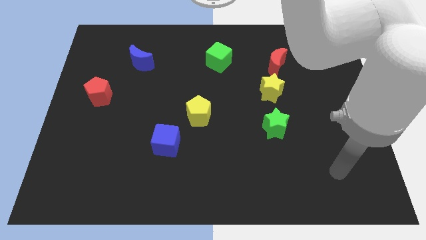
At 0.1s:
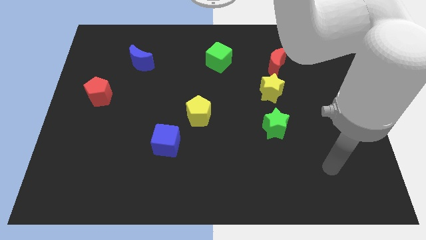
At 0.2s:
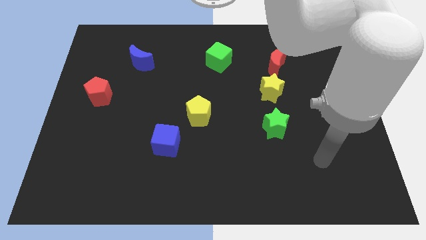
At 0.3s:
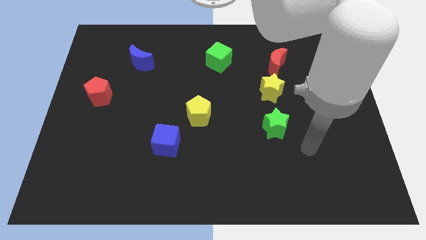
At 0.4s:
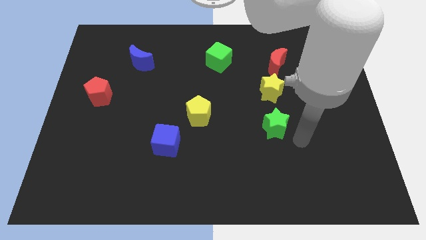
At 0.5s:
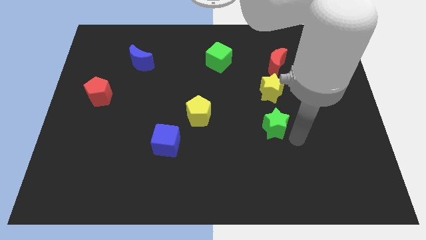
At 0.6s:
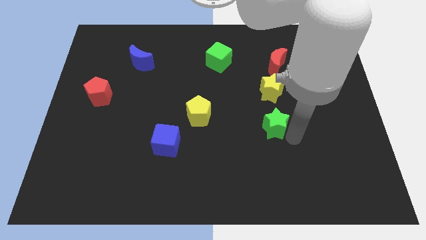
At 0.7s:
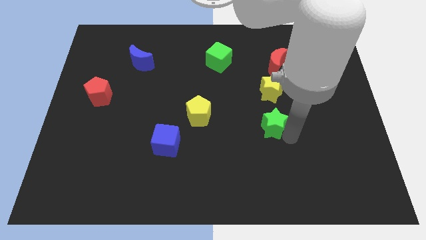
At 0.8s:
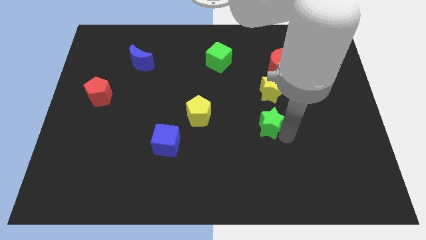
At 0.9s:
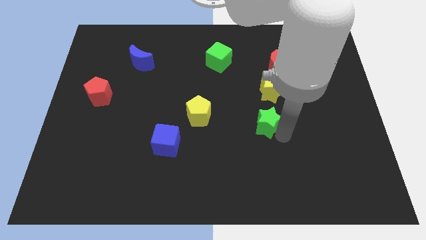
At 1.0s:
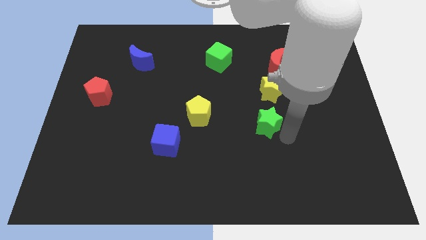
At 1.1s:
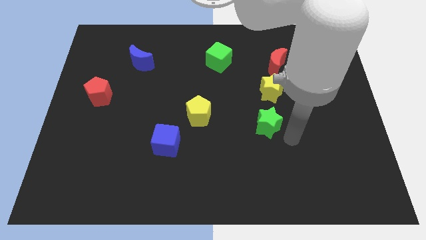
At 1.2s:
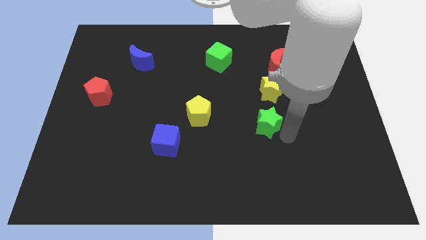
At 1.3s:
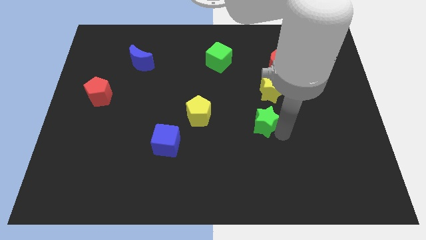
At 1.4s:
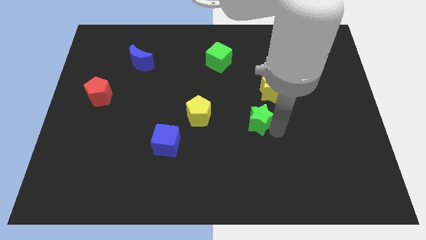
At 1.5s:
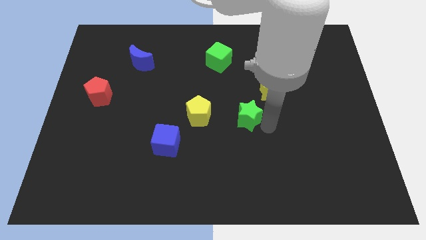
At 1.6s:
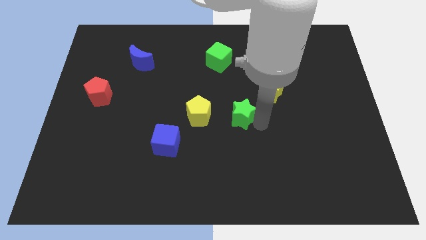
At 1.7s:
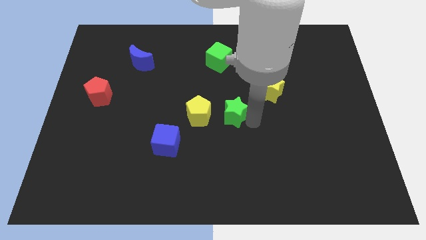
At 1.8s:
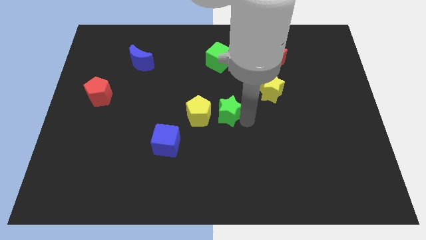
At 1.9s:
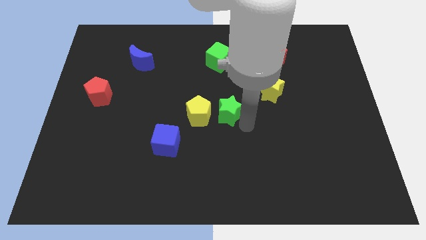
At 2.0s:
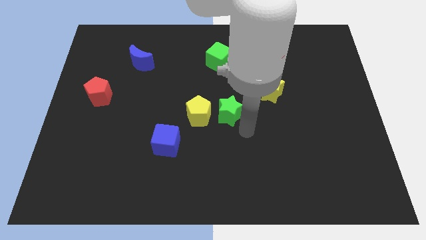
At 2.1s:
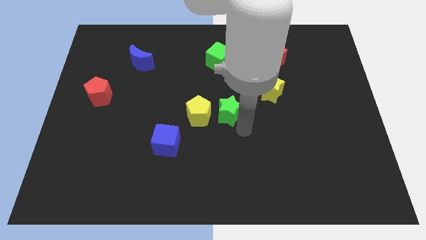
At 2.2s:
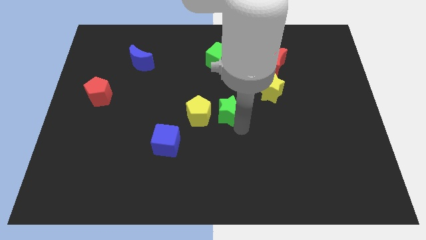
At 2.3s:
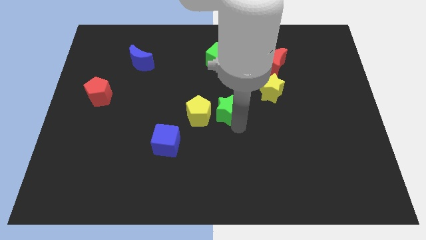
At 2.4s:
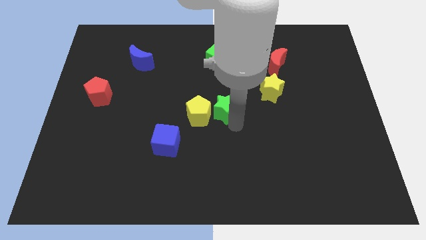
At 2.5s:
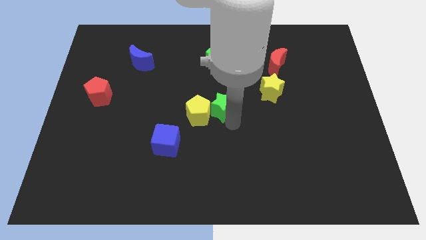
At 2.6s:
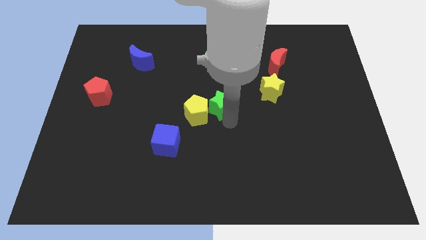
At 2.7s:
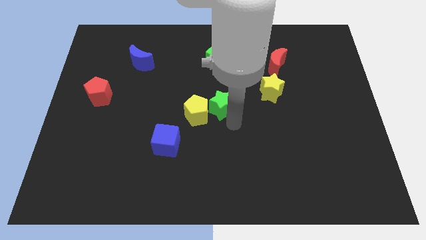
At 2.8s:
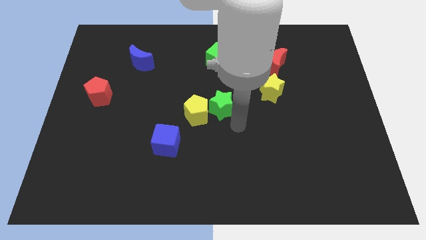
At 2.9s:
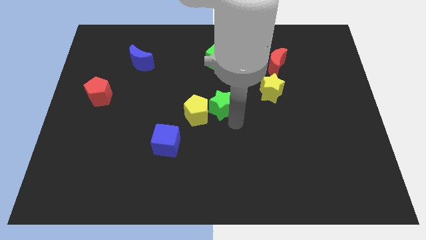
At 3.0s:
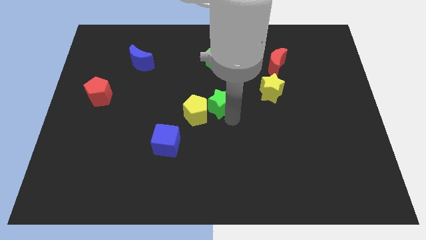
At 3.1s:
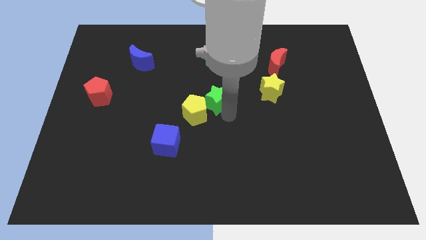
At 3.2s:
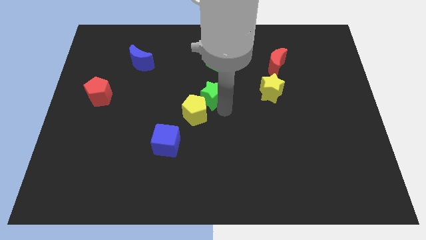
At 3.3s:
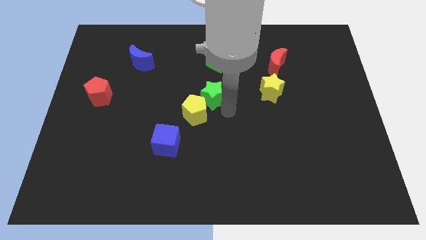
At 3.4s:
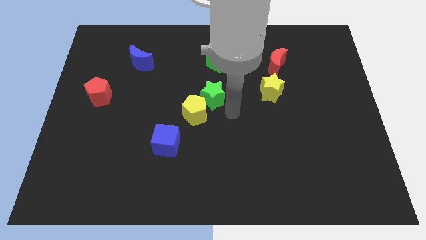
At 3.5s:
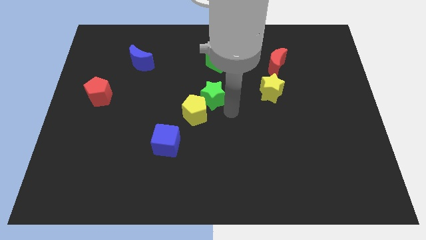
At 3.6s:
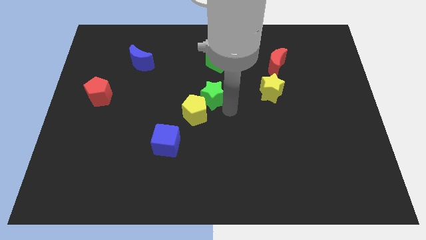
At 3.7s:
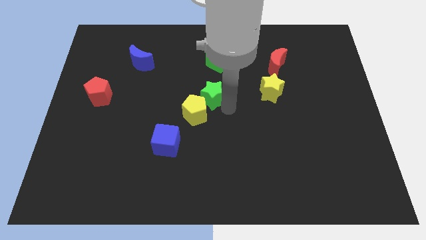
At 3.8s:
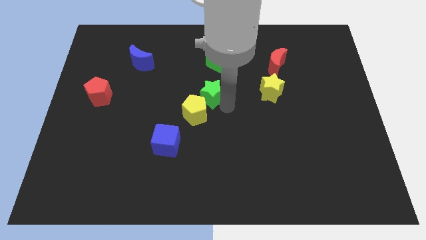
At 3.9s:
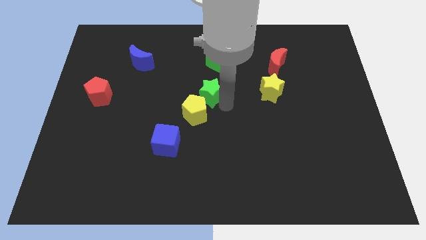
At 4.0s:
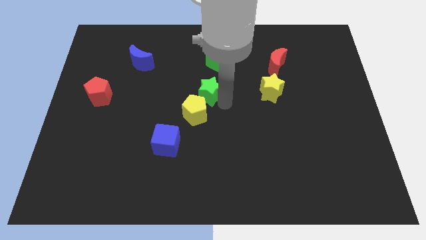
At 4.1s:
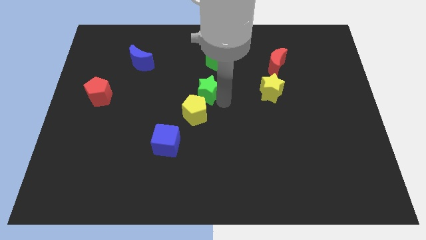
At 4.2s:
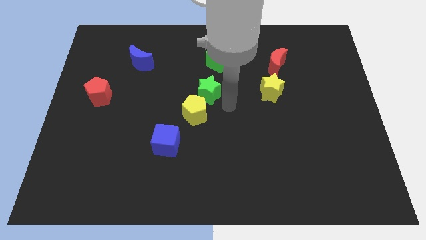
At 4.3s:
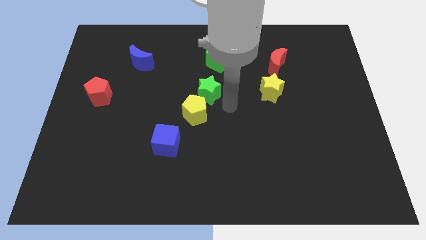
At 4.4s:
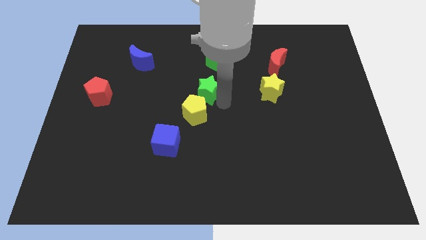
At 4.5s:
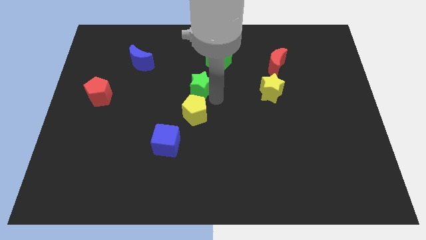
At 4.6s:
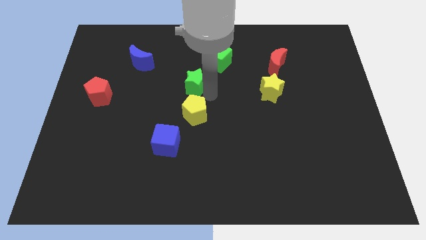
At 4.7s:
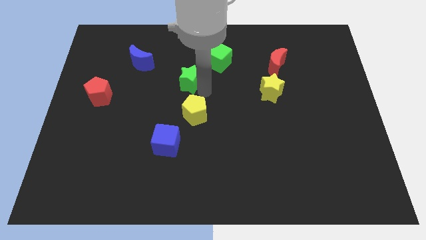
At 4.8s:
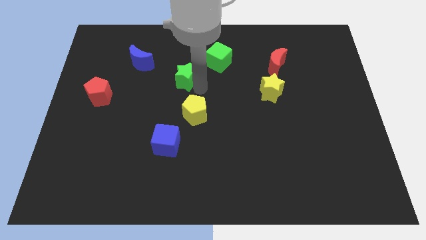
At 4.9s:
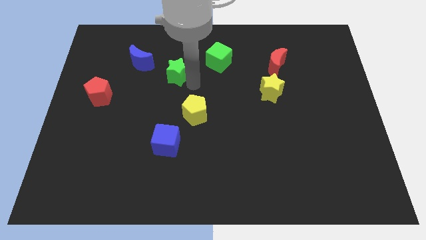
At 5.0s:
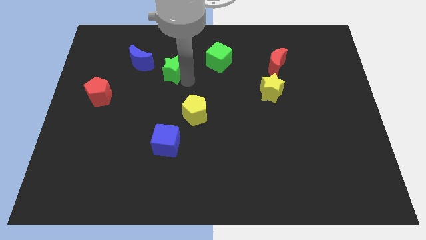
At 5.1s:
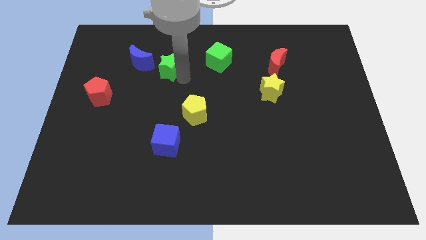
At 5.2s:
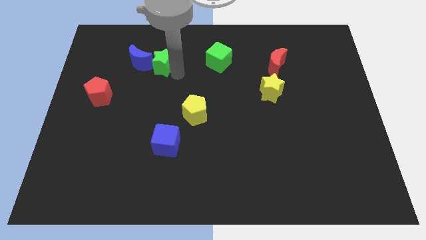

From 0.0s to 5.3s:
put the green star to the blue moon

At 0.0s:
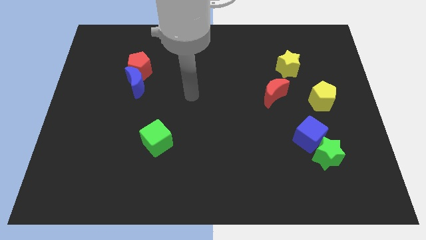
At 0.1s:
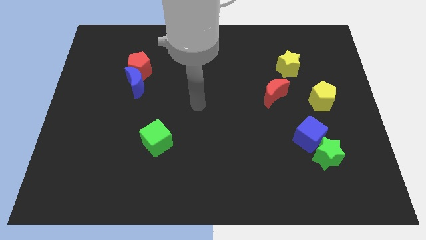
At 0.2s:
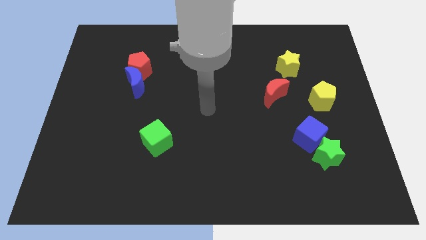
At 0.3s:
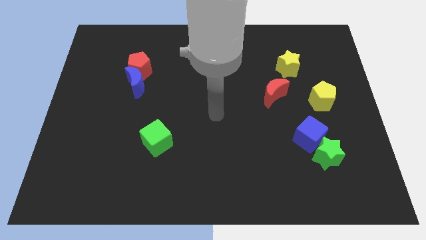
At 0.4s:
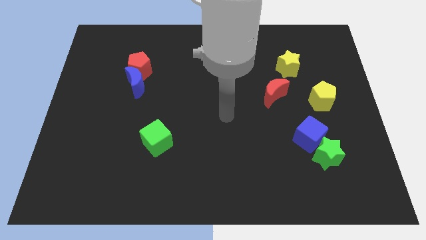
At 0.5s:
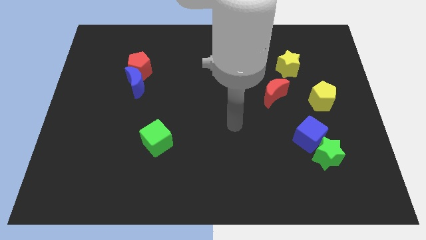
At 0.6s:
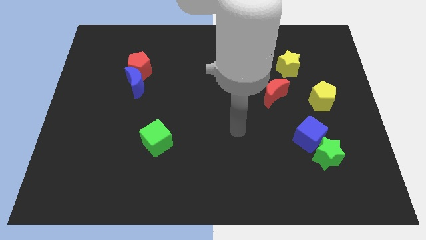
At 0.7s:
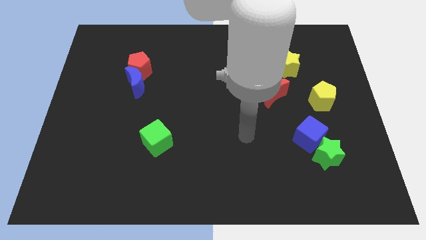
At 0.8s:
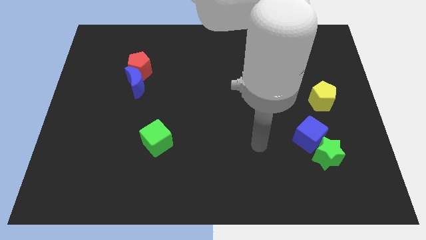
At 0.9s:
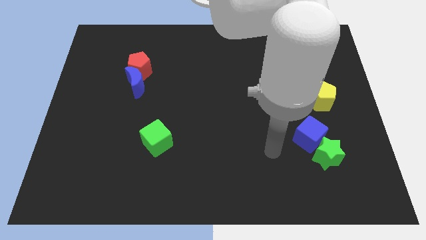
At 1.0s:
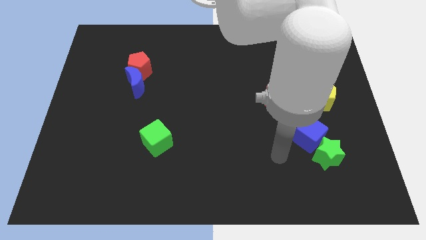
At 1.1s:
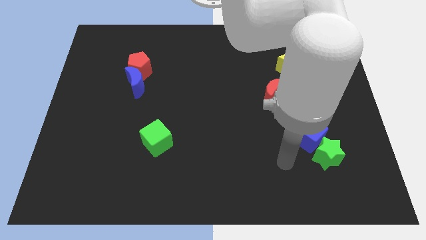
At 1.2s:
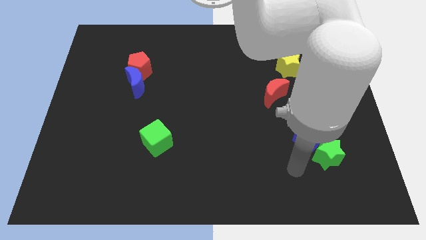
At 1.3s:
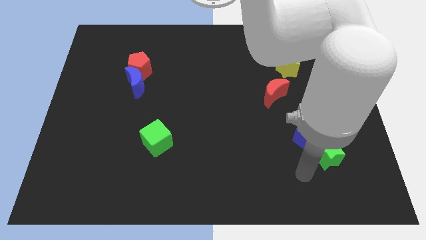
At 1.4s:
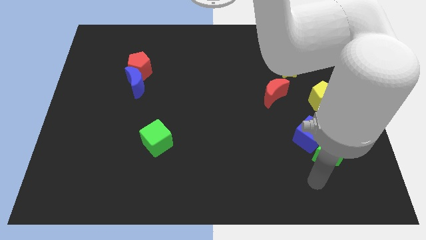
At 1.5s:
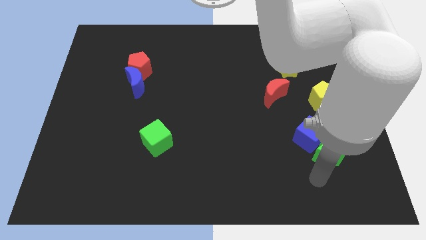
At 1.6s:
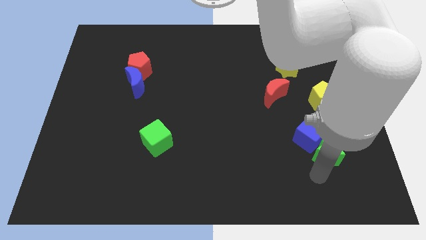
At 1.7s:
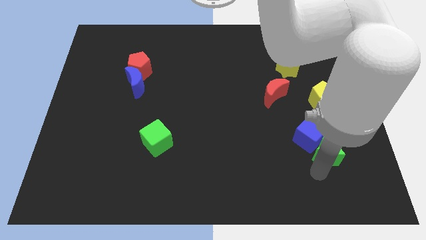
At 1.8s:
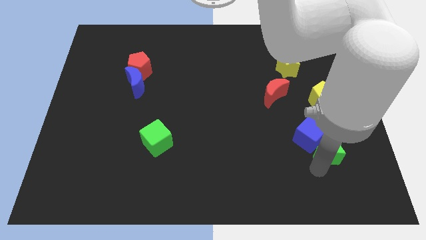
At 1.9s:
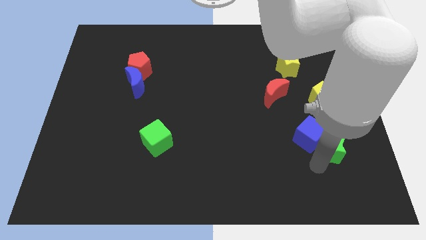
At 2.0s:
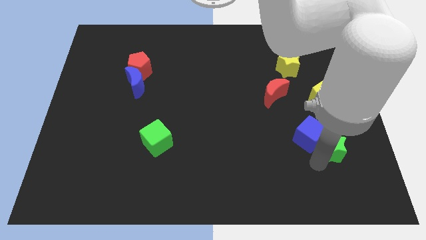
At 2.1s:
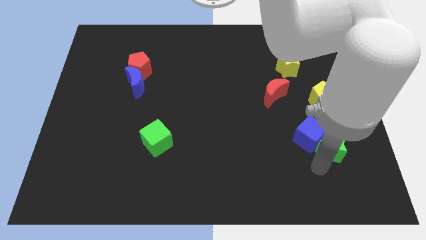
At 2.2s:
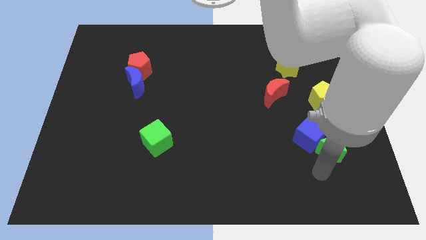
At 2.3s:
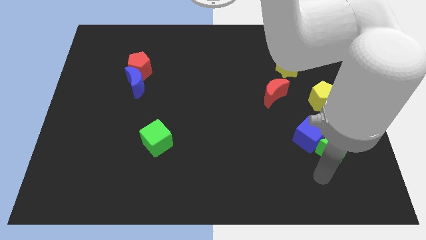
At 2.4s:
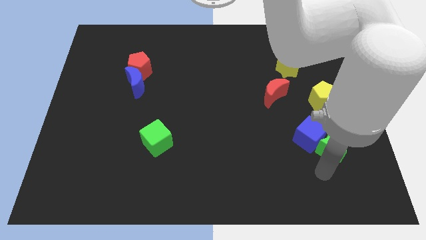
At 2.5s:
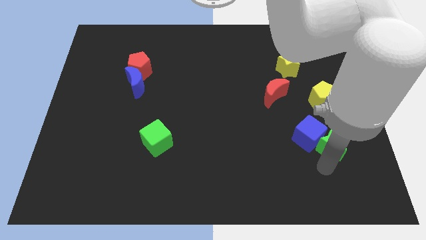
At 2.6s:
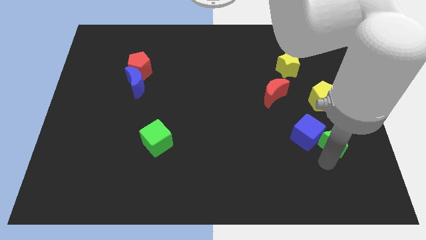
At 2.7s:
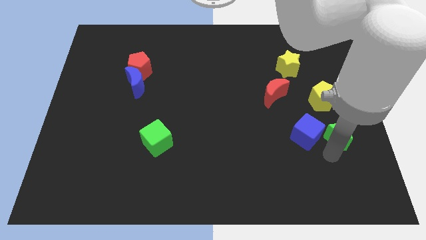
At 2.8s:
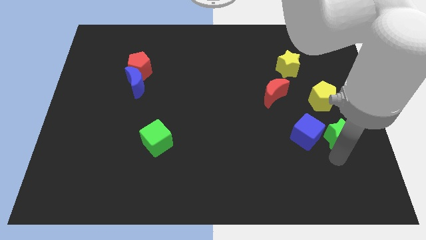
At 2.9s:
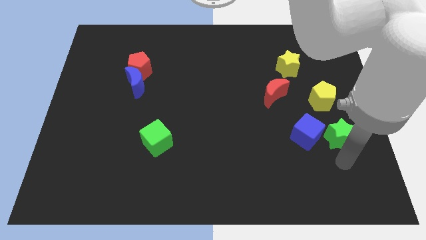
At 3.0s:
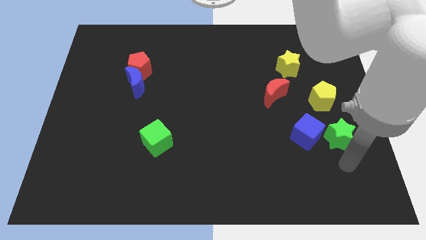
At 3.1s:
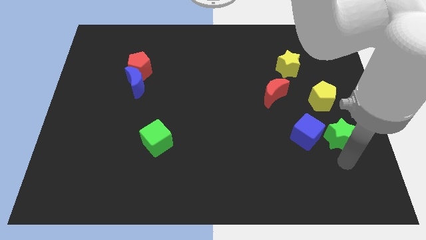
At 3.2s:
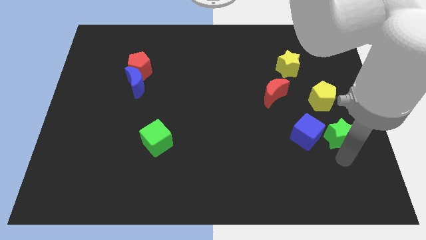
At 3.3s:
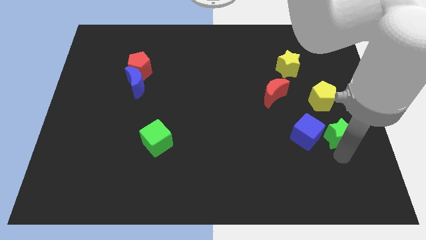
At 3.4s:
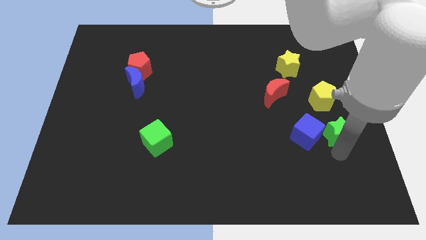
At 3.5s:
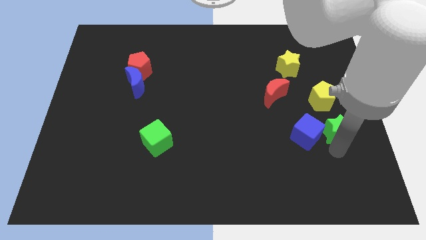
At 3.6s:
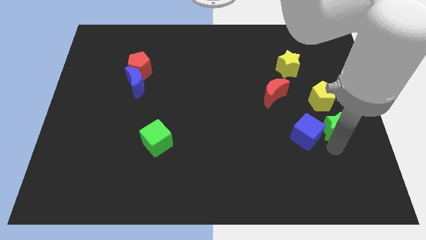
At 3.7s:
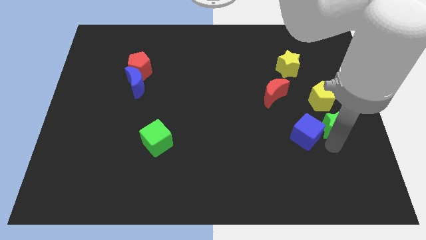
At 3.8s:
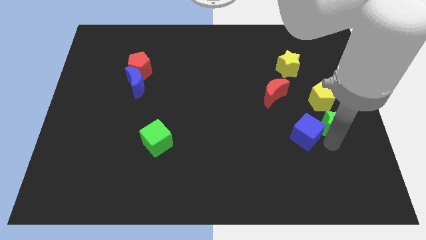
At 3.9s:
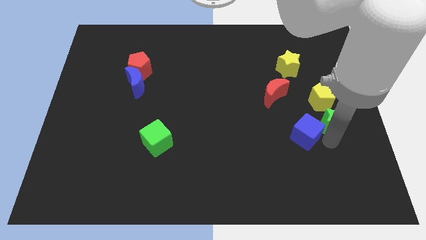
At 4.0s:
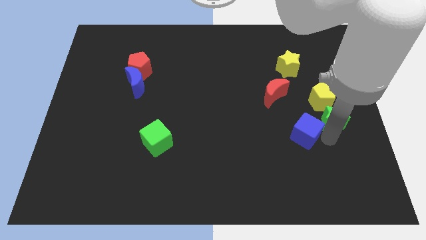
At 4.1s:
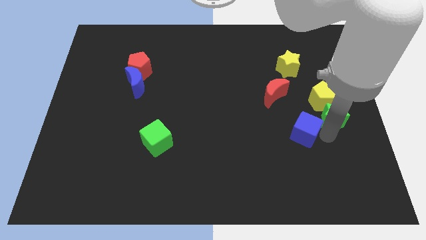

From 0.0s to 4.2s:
slide the green star towards the yellow pentagon
